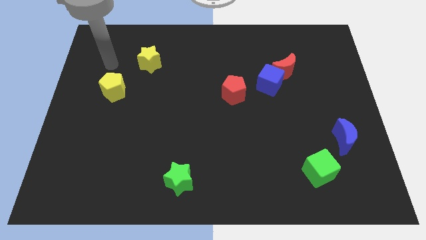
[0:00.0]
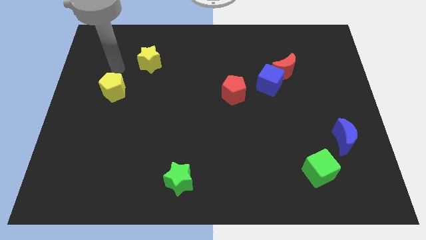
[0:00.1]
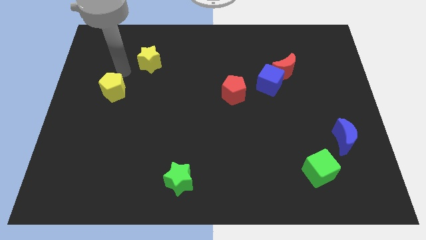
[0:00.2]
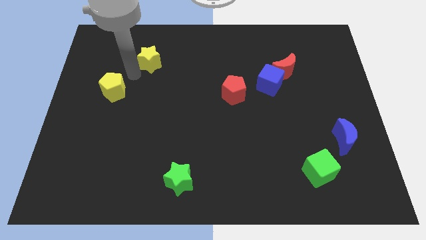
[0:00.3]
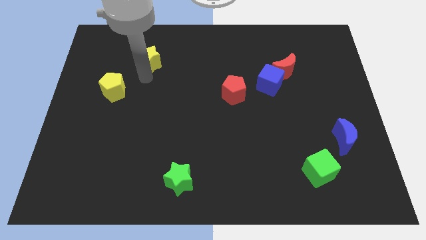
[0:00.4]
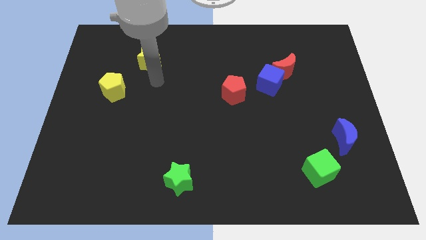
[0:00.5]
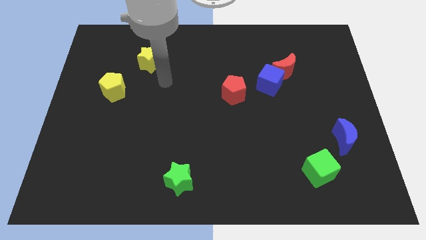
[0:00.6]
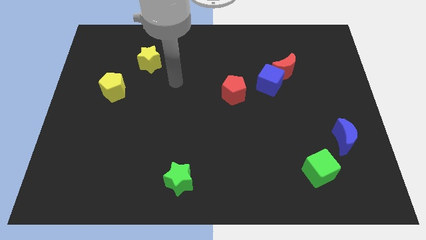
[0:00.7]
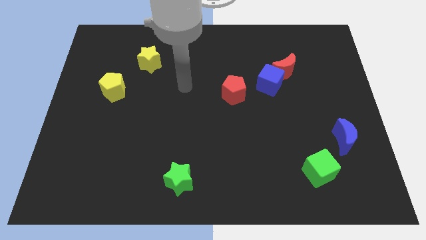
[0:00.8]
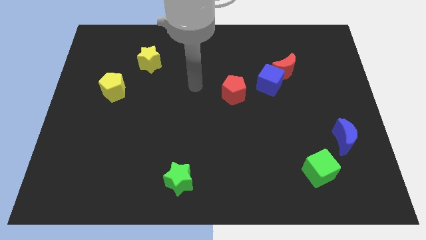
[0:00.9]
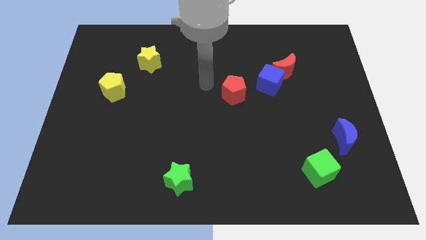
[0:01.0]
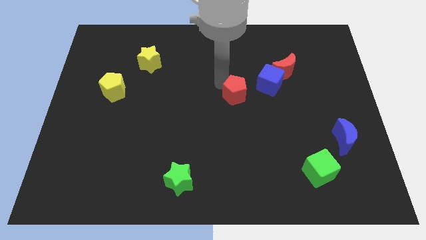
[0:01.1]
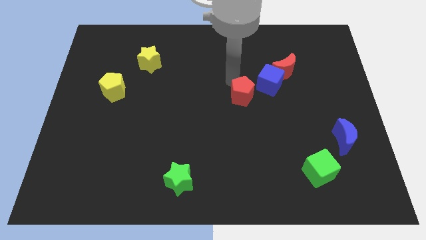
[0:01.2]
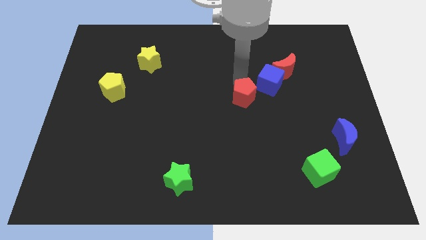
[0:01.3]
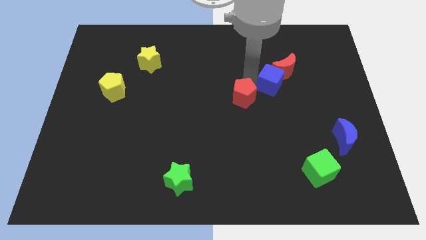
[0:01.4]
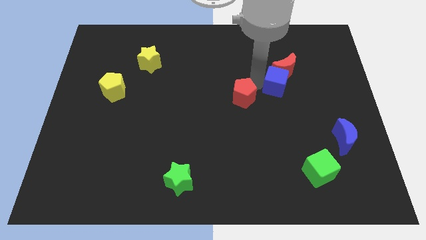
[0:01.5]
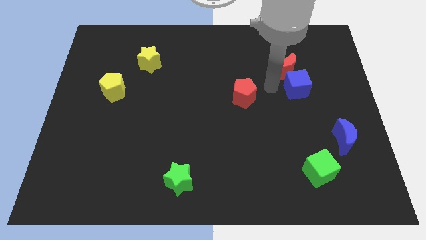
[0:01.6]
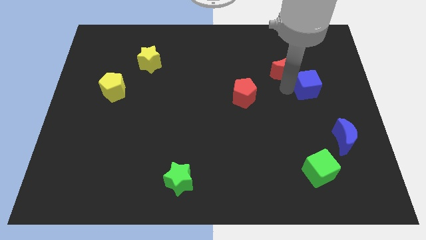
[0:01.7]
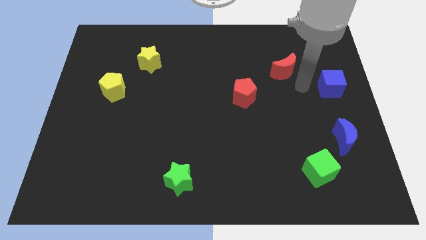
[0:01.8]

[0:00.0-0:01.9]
pull the red moon apart from the blue cube

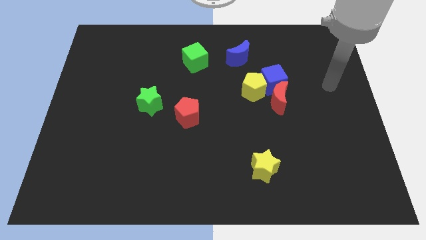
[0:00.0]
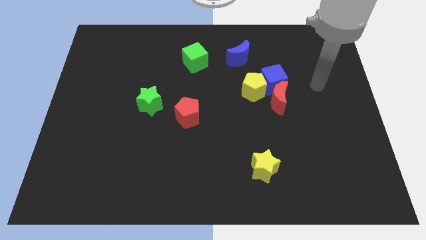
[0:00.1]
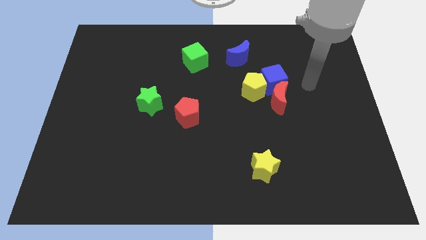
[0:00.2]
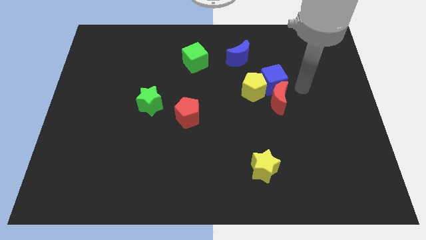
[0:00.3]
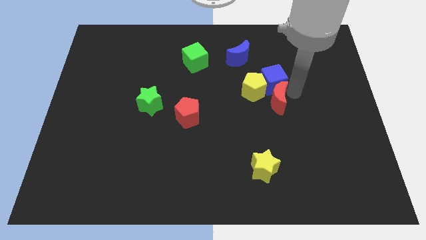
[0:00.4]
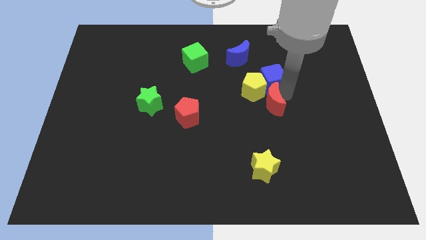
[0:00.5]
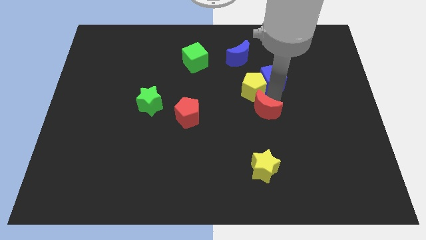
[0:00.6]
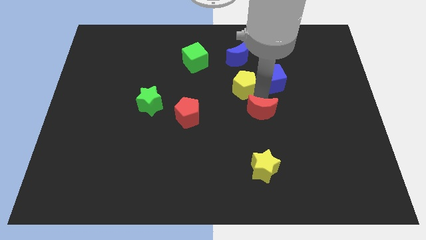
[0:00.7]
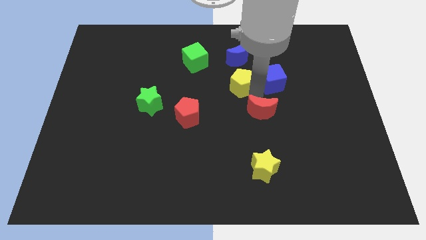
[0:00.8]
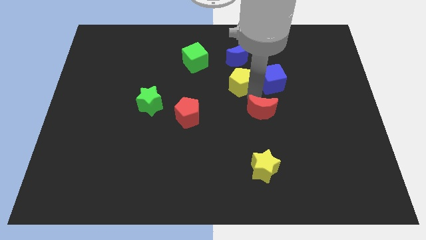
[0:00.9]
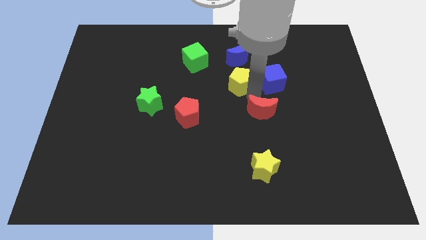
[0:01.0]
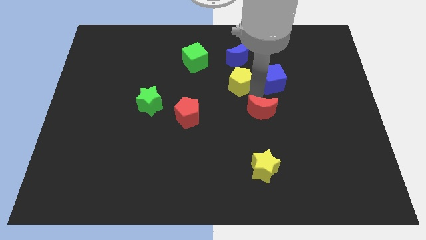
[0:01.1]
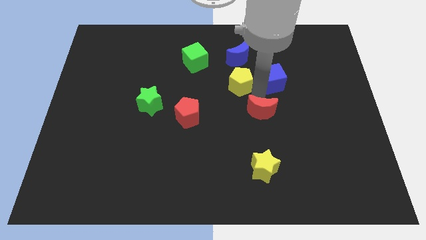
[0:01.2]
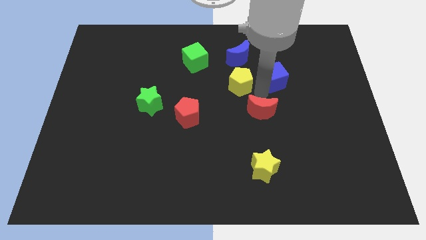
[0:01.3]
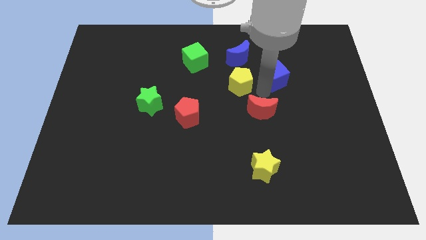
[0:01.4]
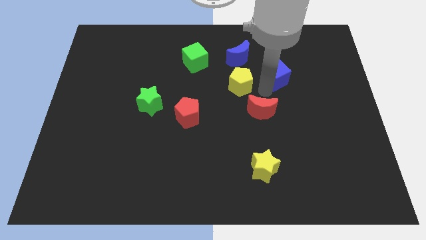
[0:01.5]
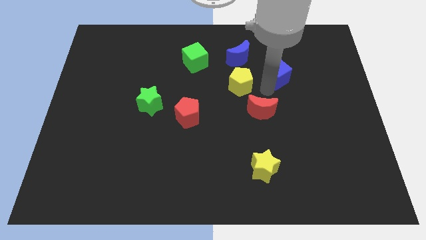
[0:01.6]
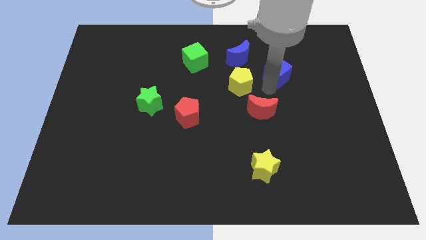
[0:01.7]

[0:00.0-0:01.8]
move the blue cube away from the yellow pentagon and red moon

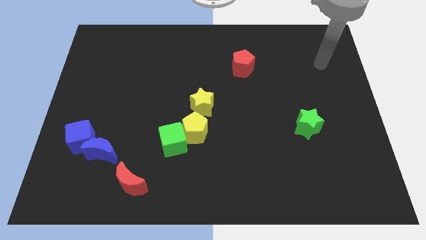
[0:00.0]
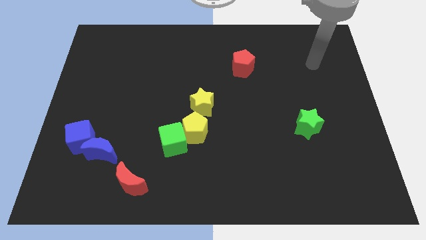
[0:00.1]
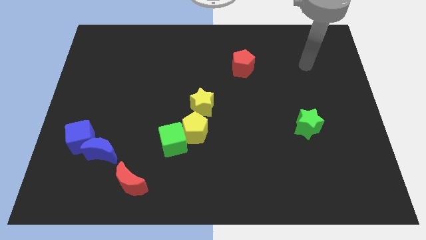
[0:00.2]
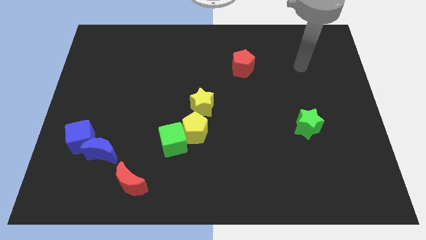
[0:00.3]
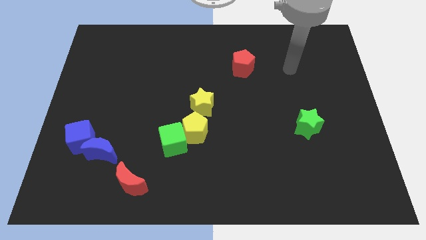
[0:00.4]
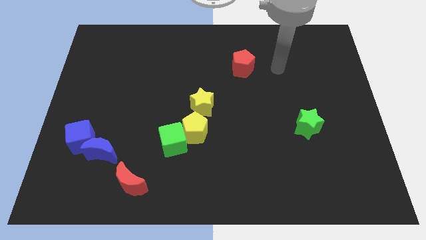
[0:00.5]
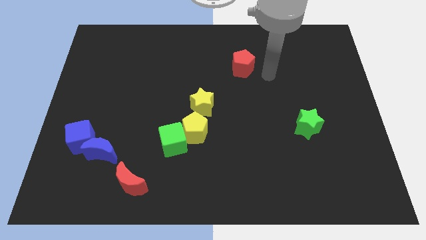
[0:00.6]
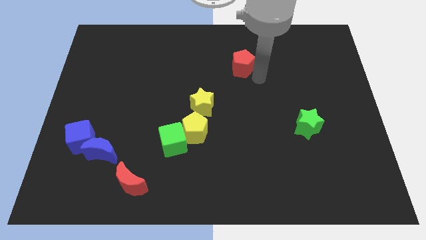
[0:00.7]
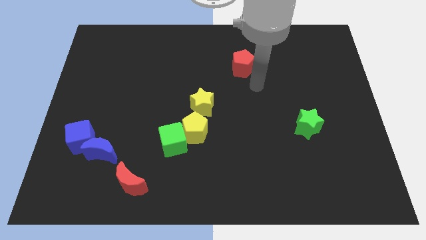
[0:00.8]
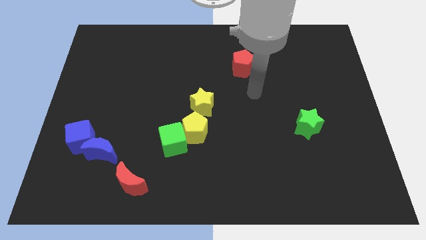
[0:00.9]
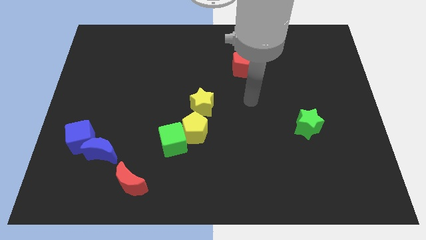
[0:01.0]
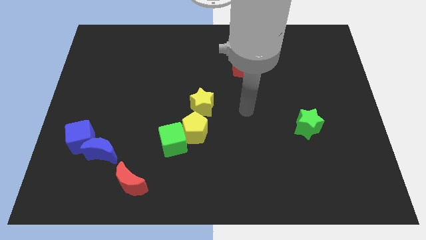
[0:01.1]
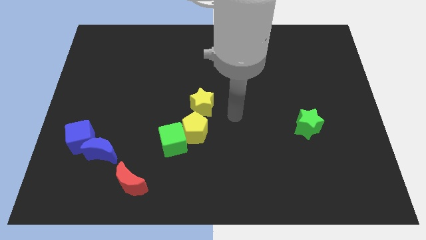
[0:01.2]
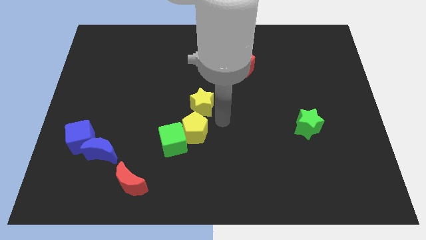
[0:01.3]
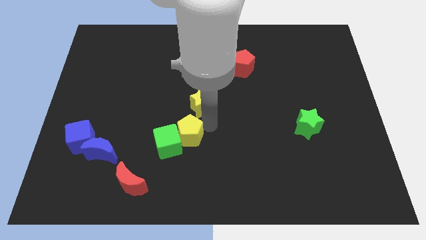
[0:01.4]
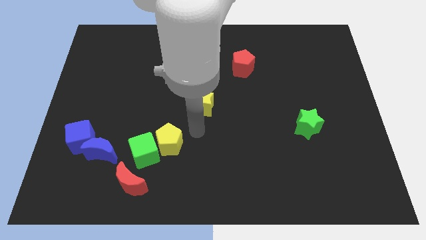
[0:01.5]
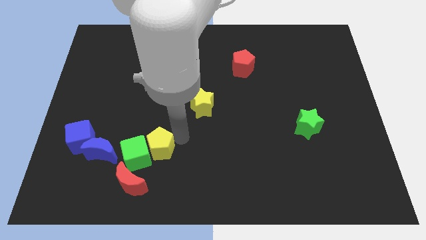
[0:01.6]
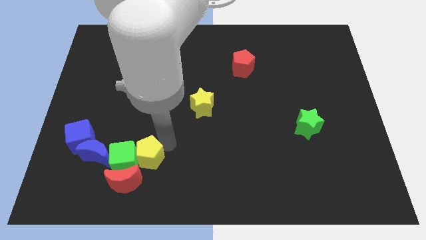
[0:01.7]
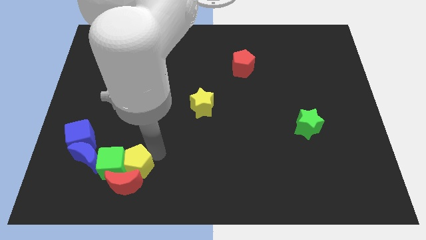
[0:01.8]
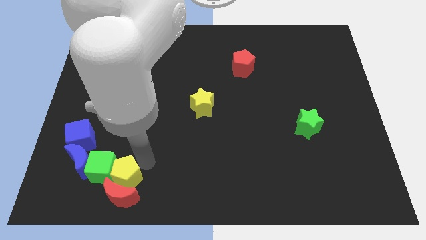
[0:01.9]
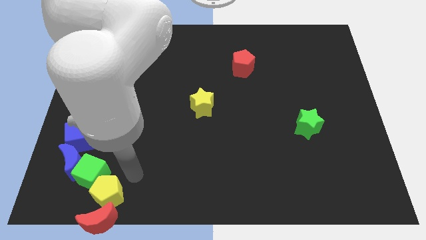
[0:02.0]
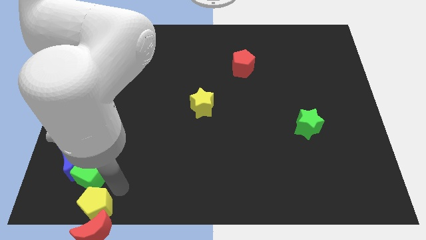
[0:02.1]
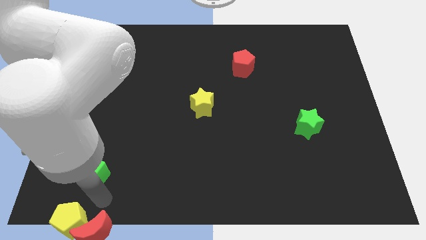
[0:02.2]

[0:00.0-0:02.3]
move the green cube away from the yellow pentagon

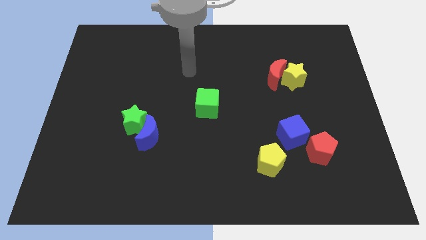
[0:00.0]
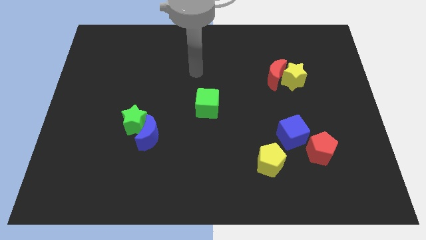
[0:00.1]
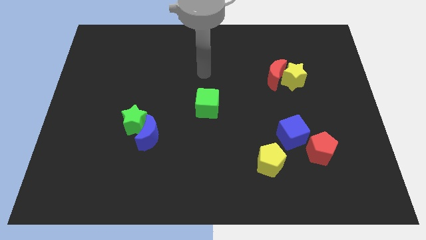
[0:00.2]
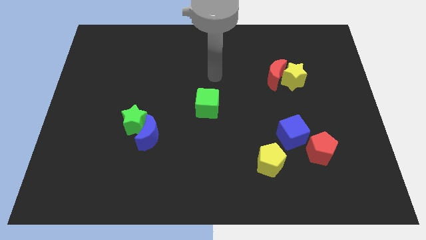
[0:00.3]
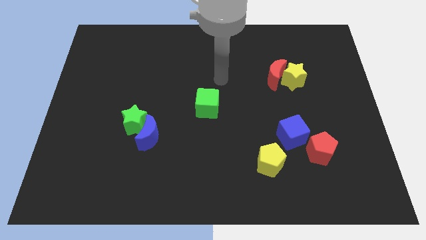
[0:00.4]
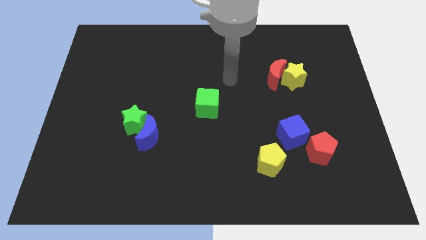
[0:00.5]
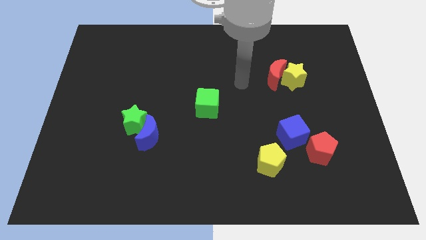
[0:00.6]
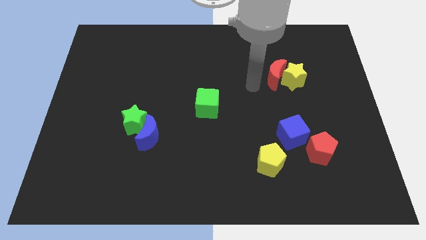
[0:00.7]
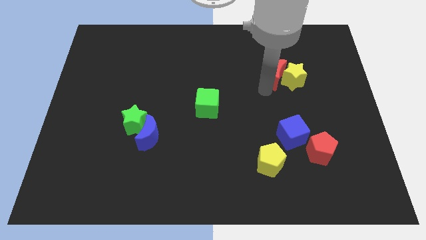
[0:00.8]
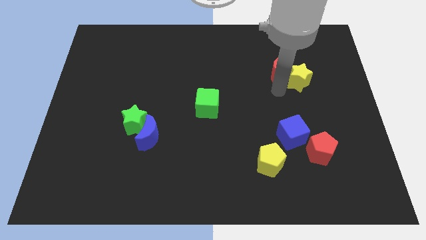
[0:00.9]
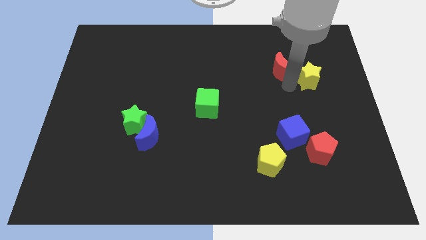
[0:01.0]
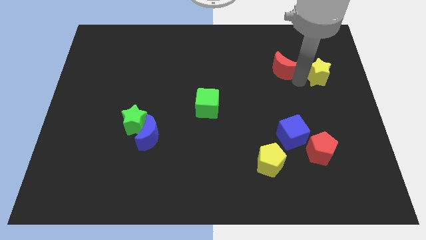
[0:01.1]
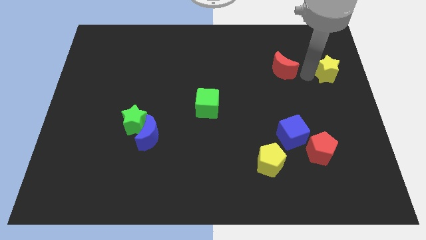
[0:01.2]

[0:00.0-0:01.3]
separate the red moon from the yellow star

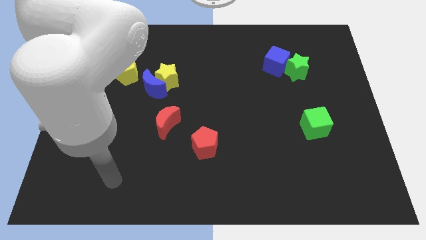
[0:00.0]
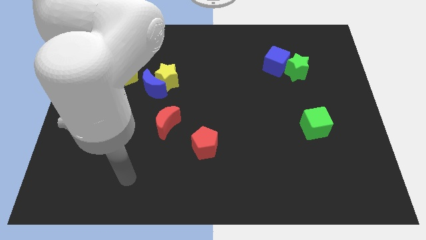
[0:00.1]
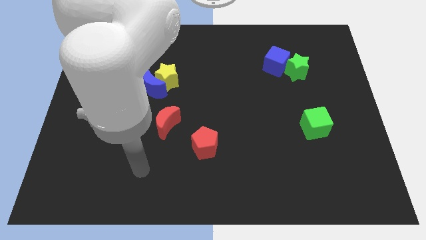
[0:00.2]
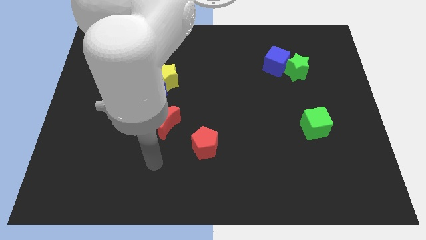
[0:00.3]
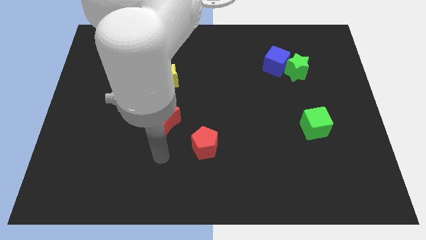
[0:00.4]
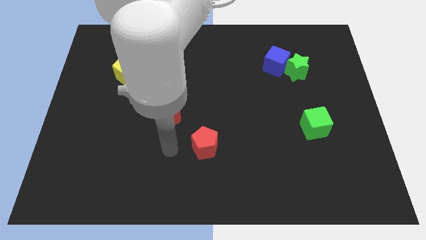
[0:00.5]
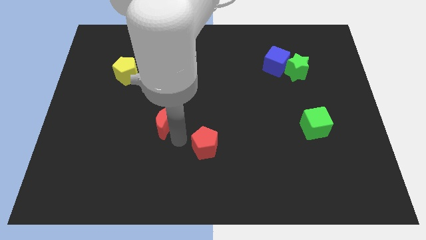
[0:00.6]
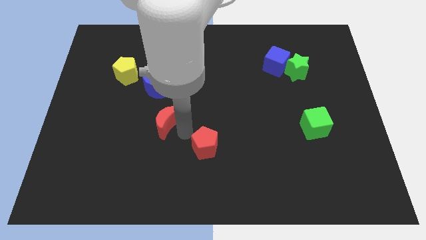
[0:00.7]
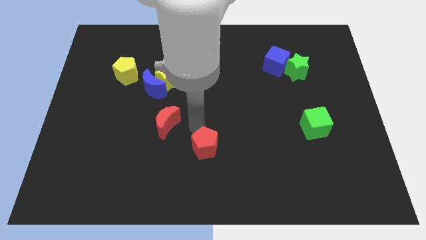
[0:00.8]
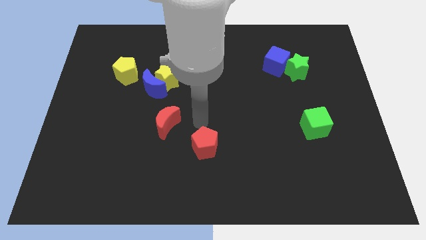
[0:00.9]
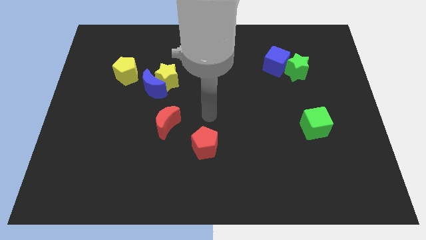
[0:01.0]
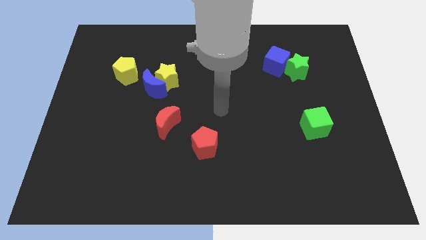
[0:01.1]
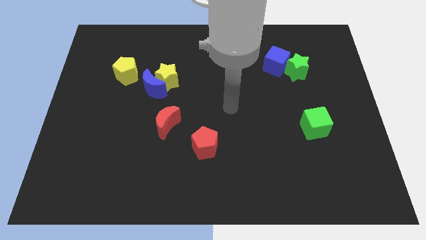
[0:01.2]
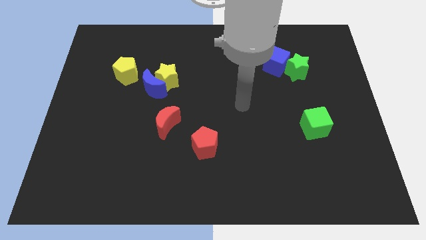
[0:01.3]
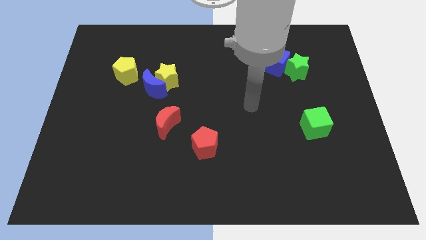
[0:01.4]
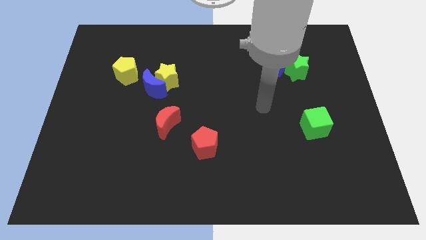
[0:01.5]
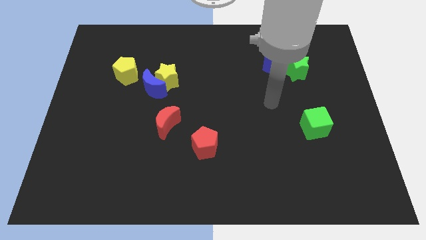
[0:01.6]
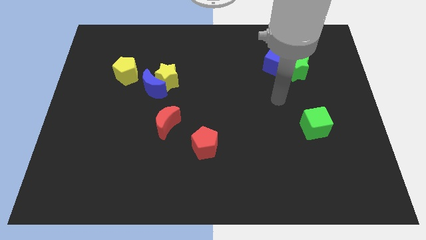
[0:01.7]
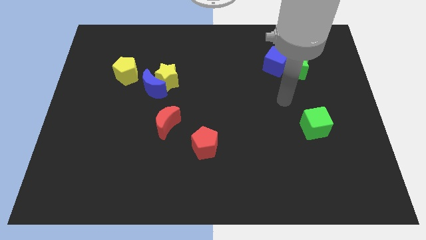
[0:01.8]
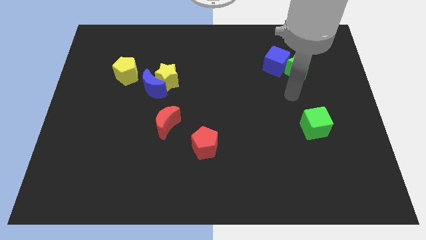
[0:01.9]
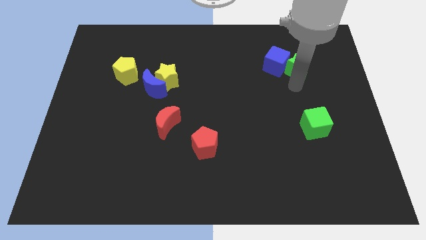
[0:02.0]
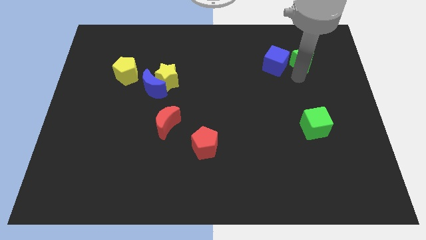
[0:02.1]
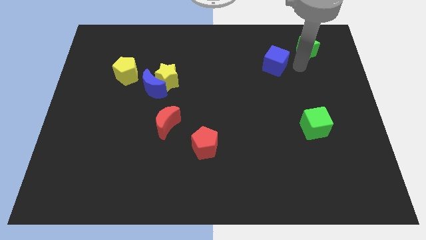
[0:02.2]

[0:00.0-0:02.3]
move the blue cube away from the green star
